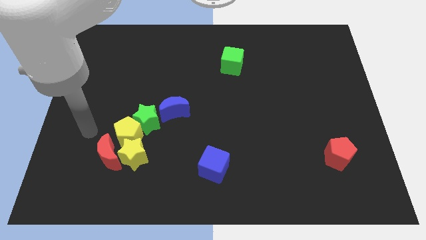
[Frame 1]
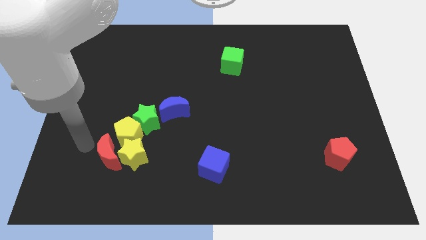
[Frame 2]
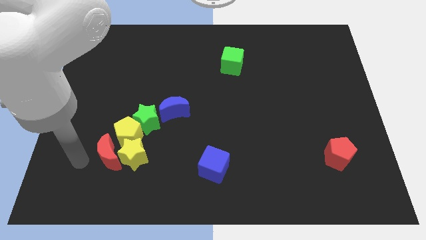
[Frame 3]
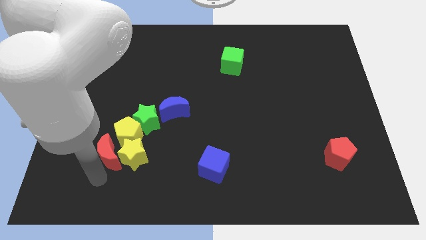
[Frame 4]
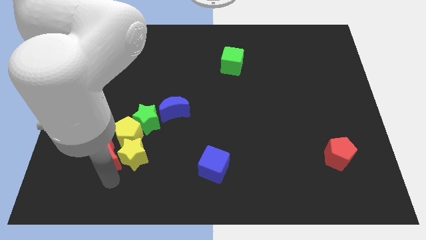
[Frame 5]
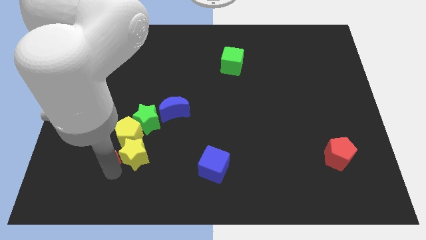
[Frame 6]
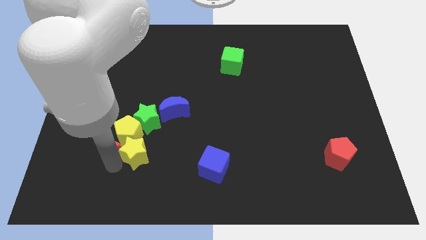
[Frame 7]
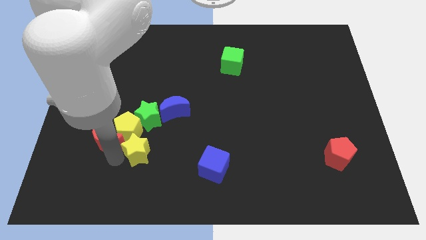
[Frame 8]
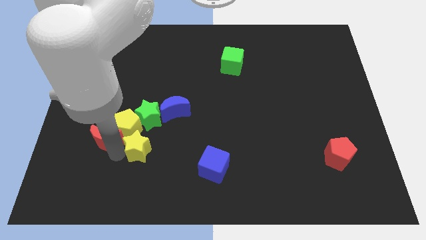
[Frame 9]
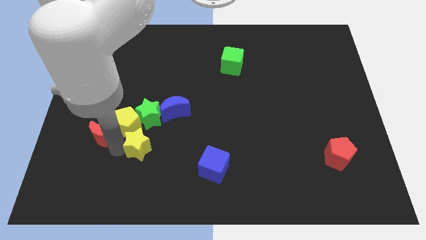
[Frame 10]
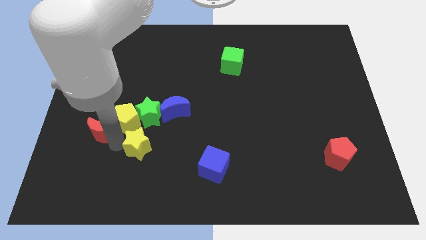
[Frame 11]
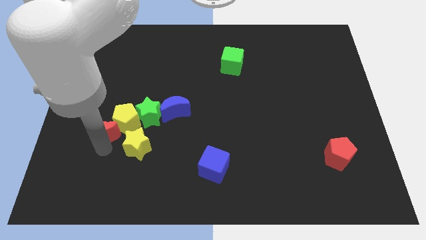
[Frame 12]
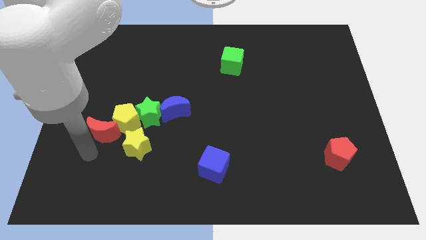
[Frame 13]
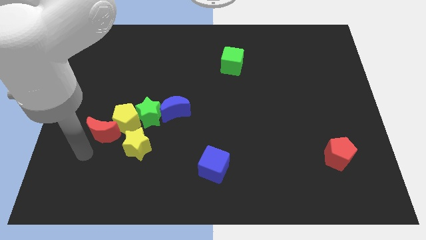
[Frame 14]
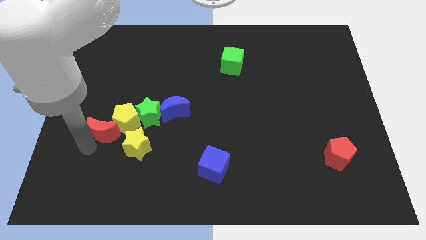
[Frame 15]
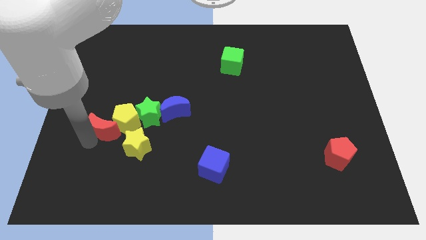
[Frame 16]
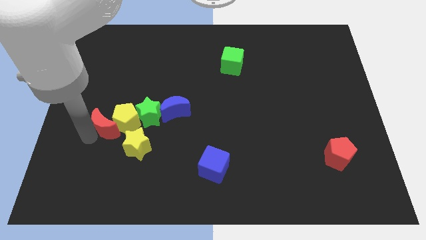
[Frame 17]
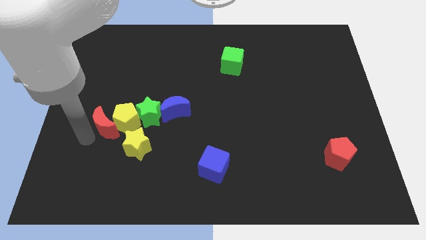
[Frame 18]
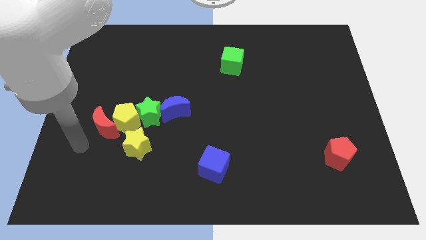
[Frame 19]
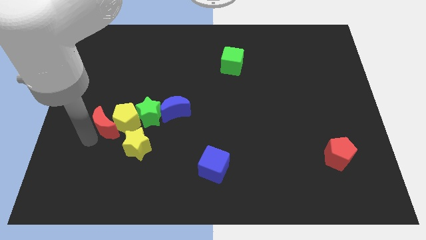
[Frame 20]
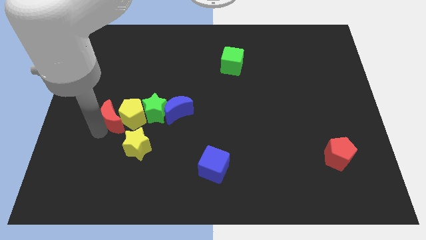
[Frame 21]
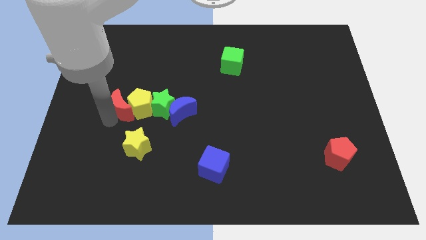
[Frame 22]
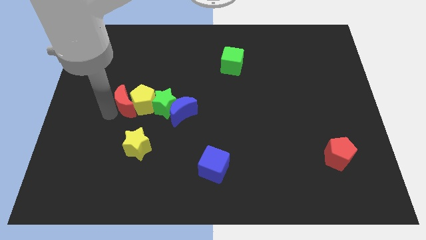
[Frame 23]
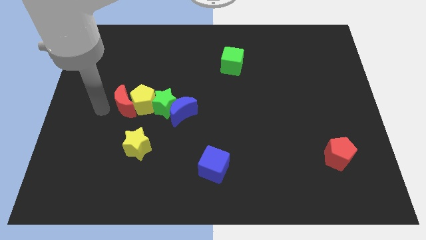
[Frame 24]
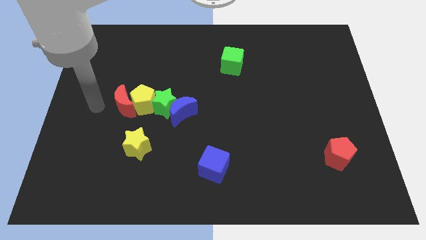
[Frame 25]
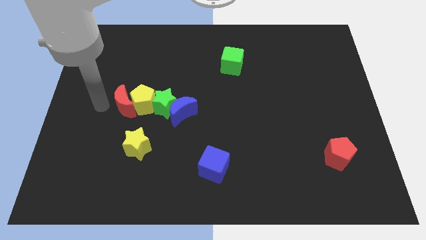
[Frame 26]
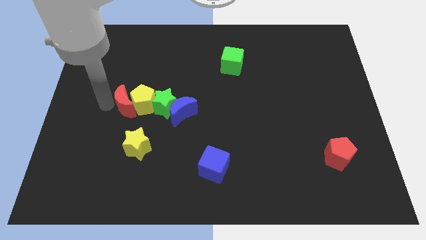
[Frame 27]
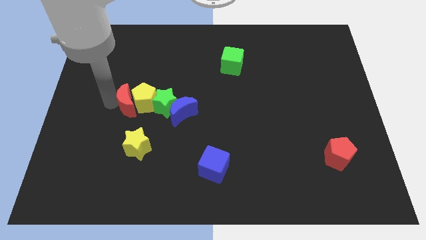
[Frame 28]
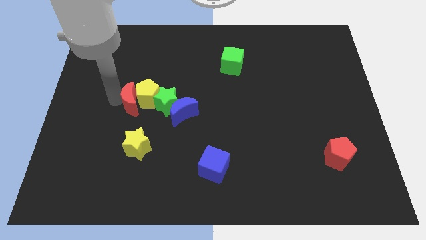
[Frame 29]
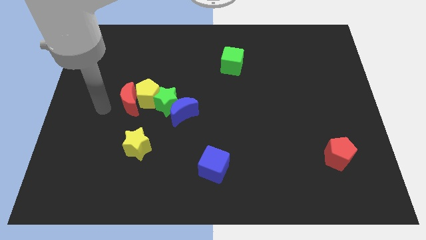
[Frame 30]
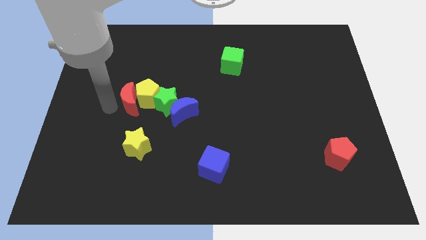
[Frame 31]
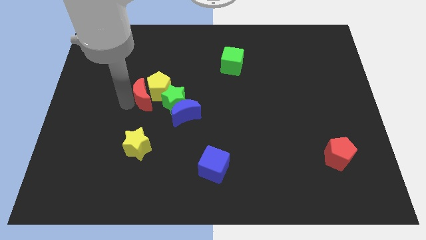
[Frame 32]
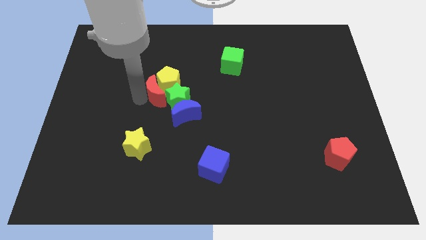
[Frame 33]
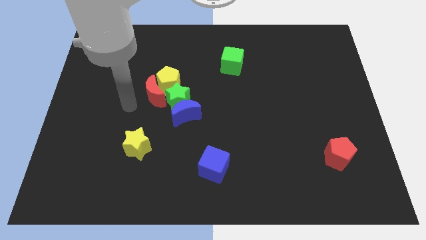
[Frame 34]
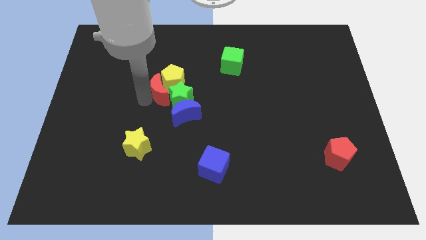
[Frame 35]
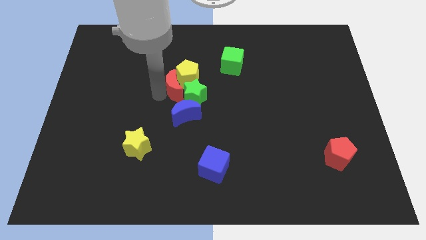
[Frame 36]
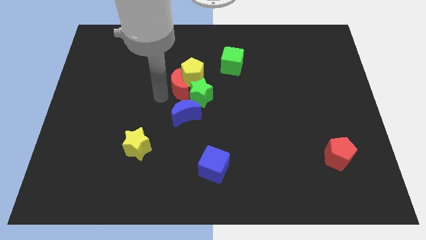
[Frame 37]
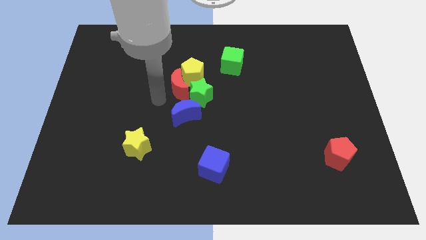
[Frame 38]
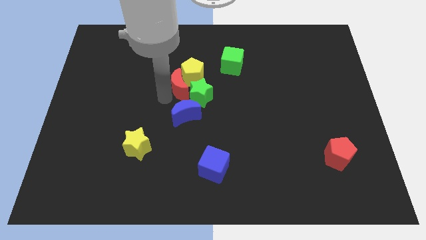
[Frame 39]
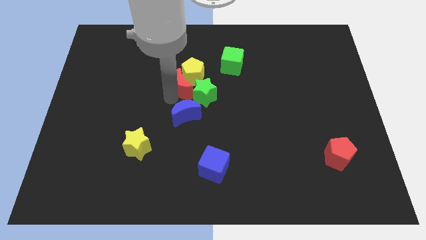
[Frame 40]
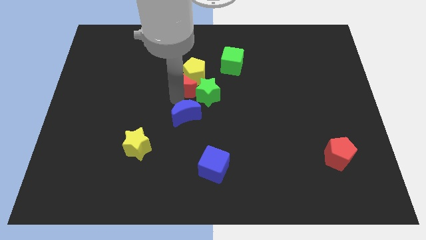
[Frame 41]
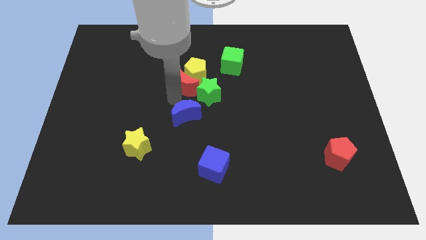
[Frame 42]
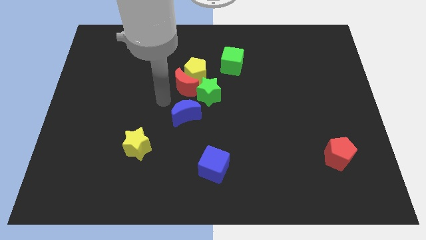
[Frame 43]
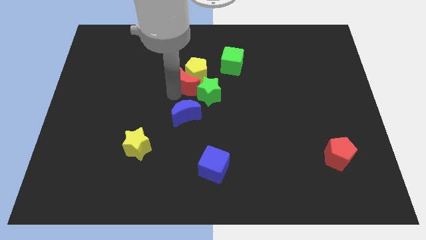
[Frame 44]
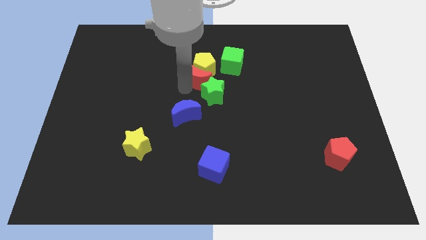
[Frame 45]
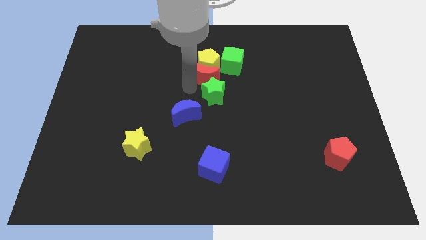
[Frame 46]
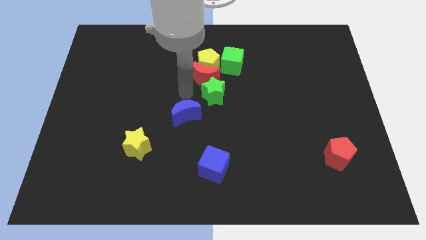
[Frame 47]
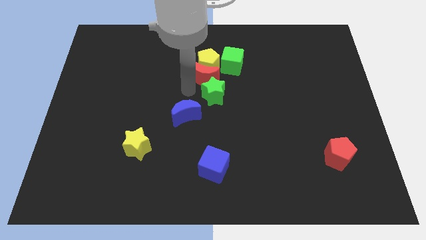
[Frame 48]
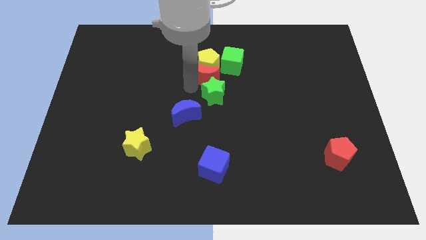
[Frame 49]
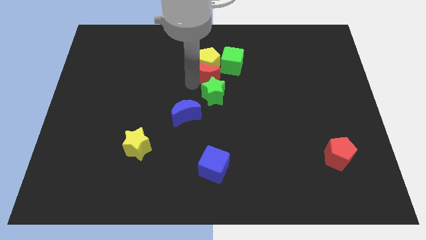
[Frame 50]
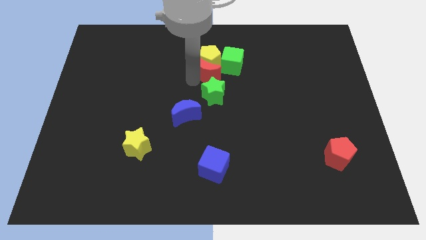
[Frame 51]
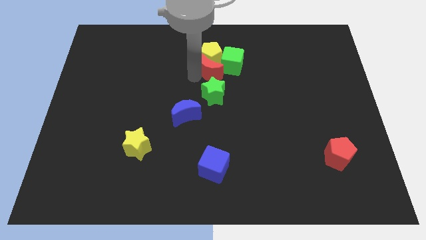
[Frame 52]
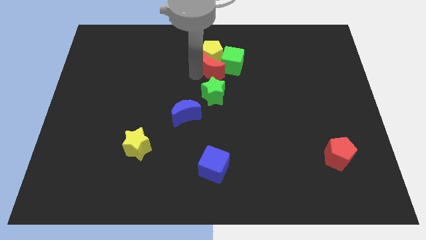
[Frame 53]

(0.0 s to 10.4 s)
slide the red moon to the green cube

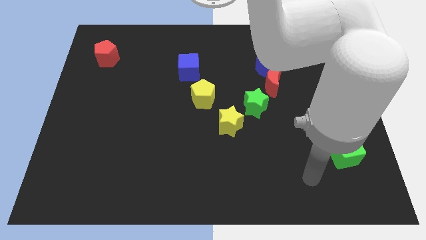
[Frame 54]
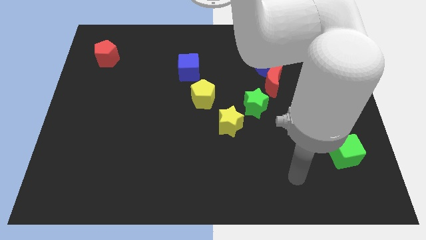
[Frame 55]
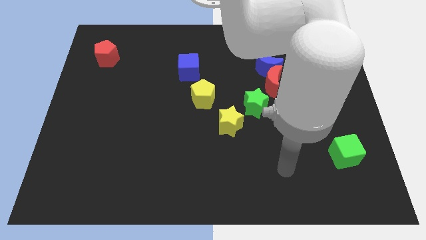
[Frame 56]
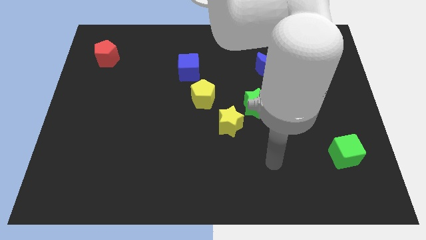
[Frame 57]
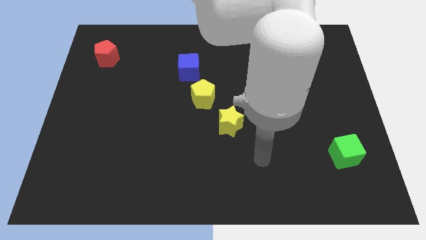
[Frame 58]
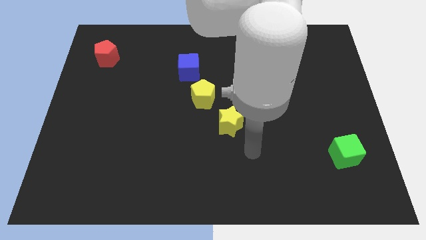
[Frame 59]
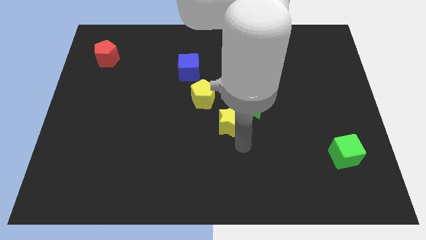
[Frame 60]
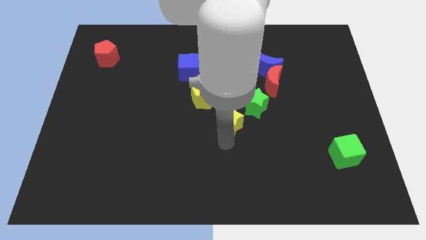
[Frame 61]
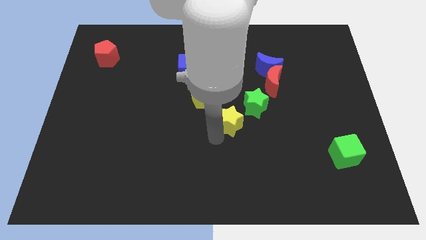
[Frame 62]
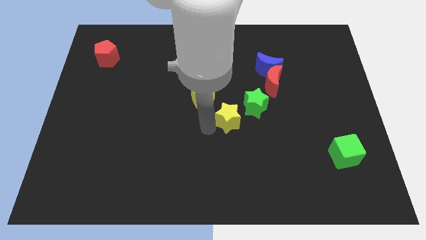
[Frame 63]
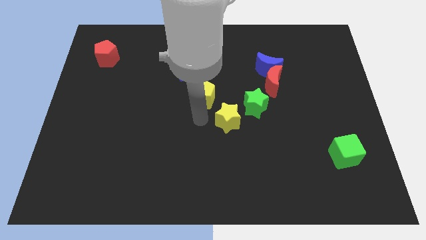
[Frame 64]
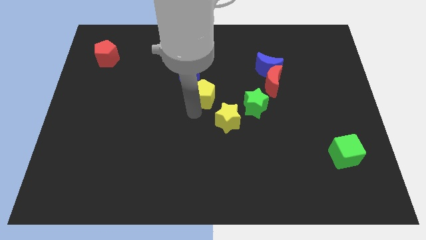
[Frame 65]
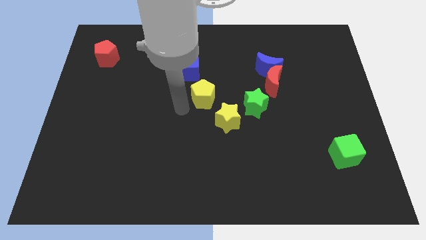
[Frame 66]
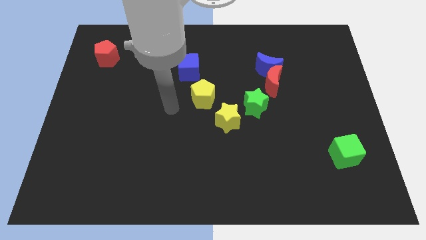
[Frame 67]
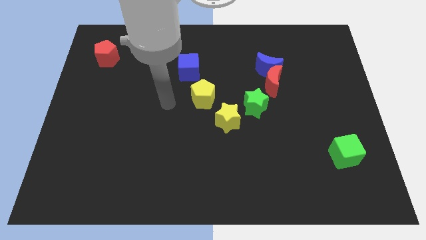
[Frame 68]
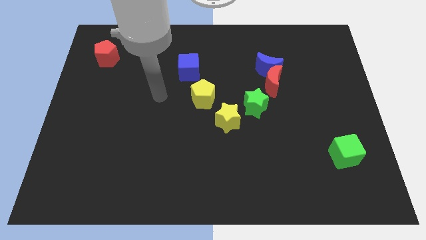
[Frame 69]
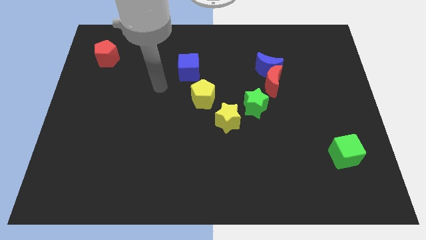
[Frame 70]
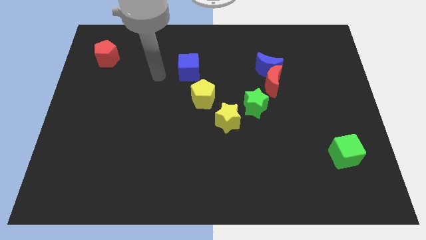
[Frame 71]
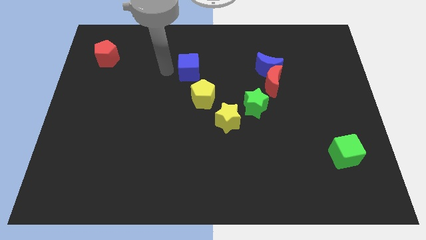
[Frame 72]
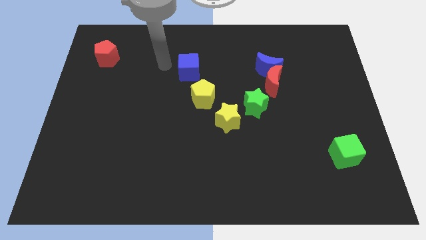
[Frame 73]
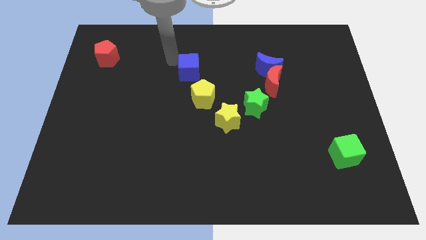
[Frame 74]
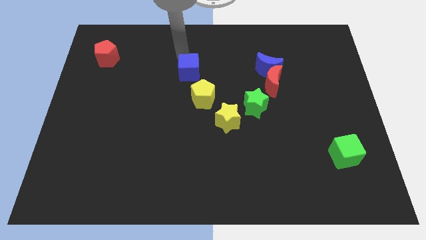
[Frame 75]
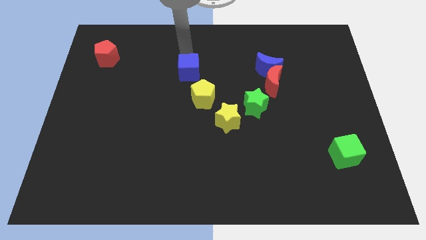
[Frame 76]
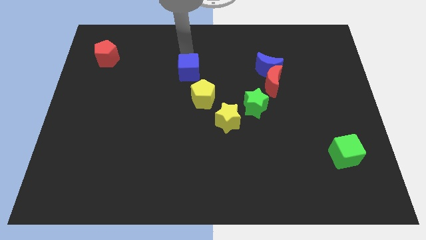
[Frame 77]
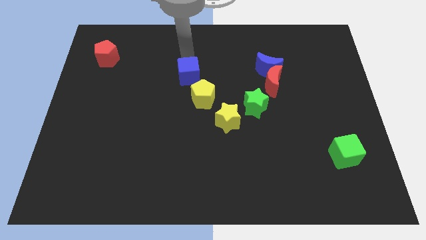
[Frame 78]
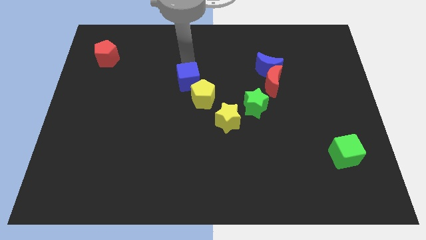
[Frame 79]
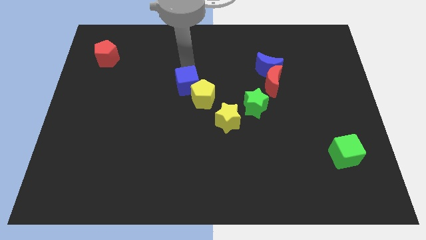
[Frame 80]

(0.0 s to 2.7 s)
slide the blue cube next to the yellow pentagon
